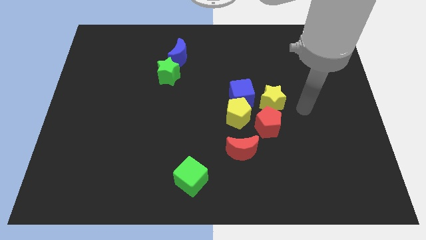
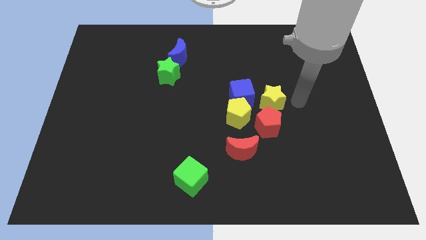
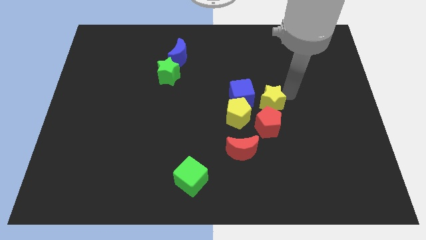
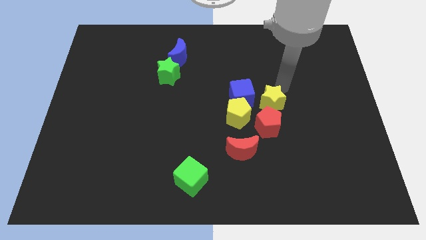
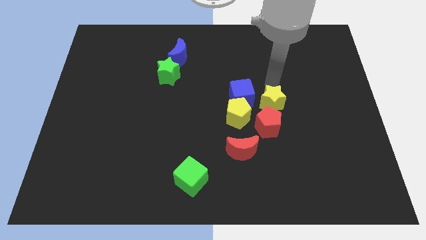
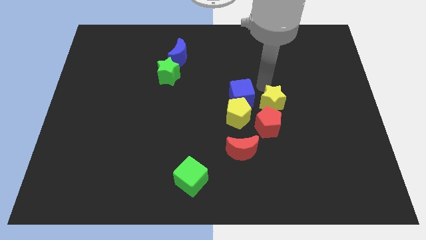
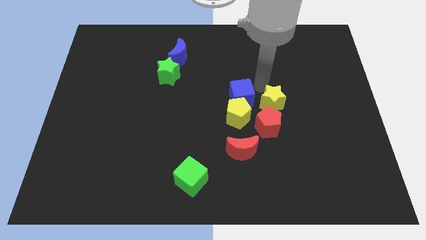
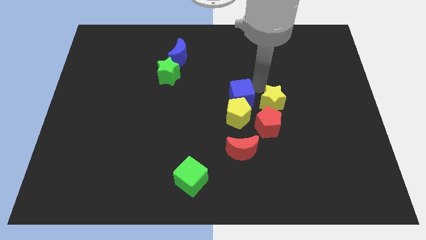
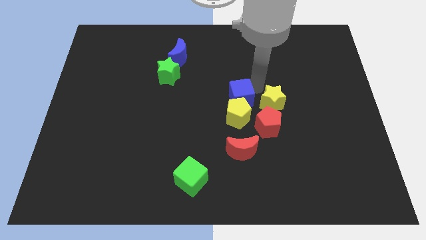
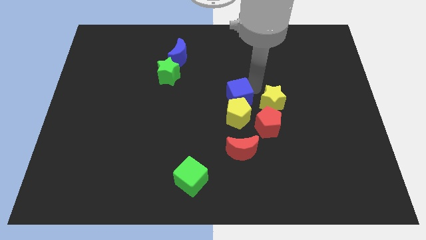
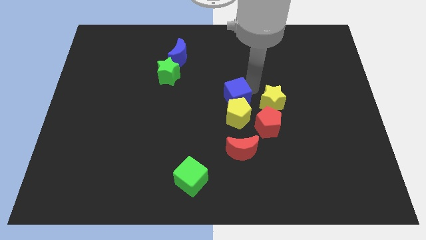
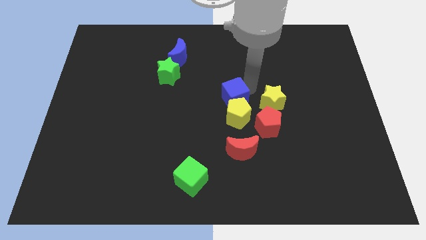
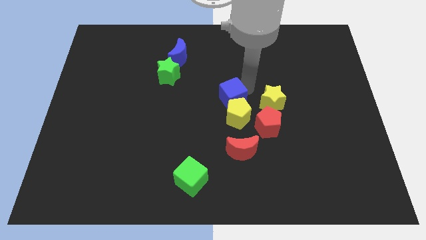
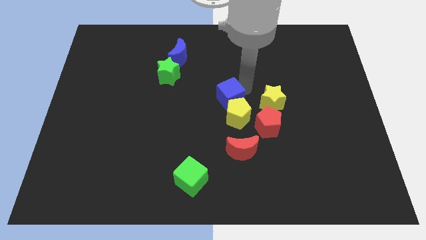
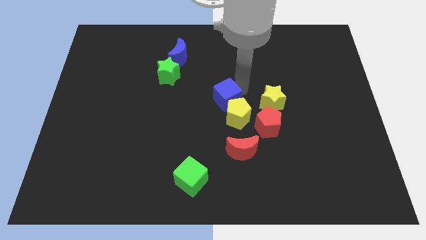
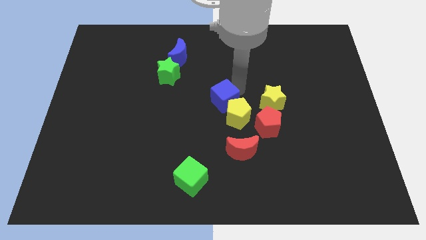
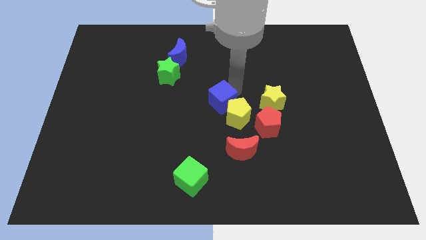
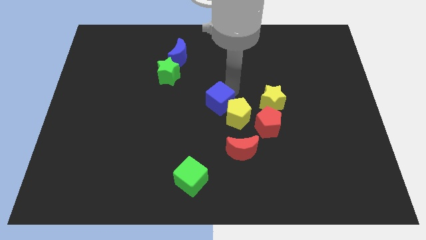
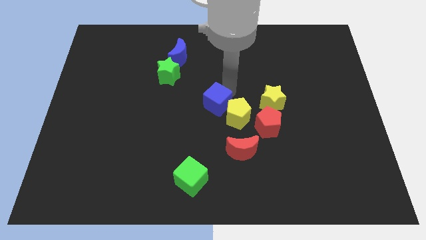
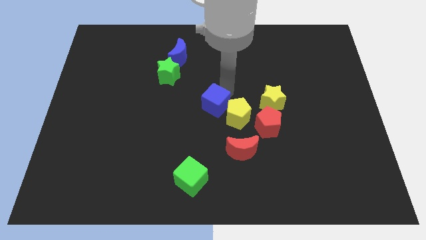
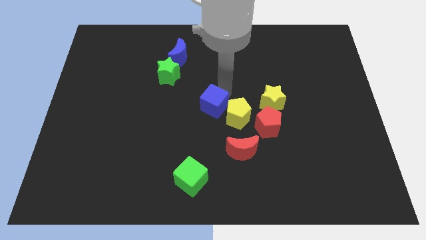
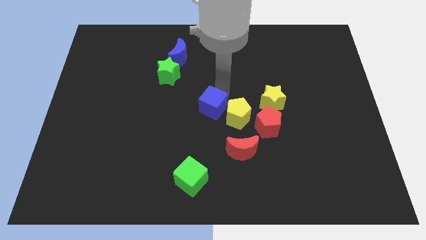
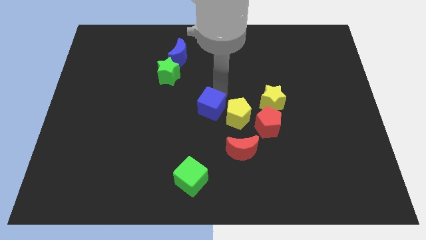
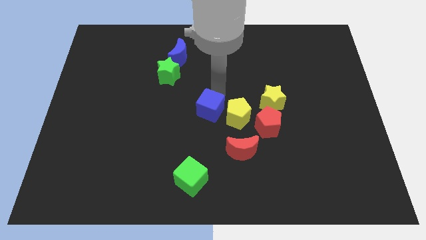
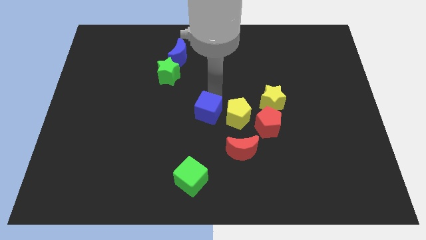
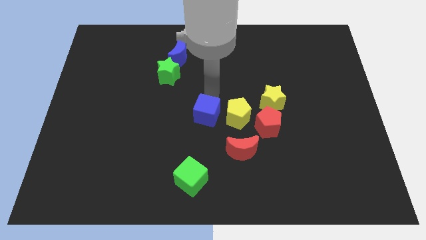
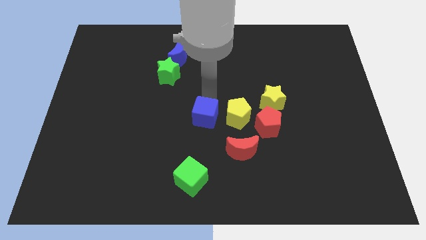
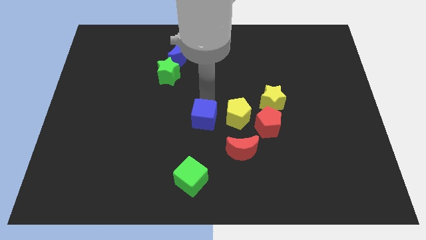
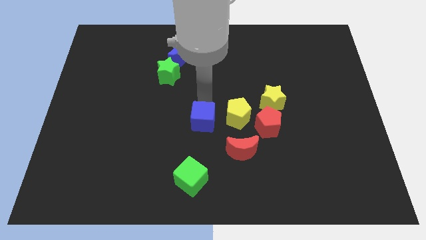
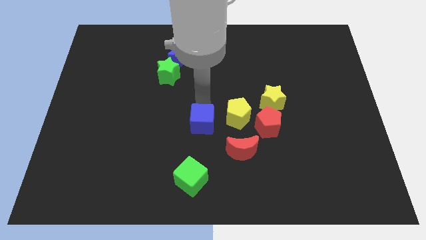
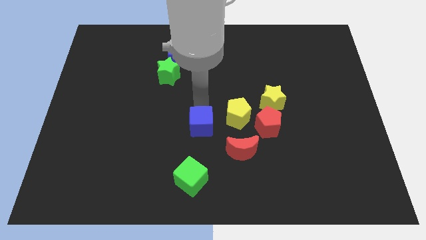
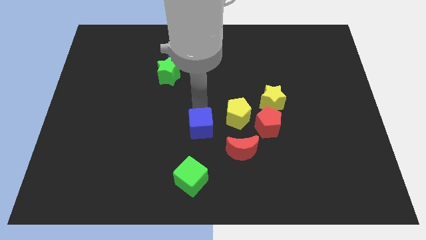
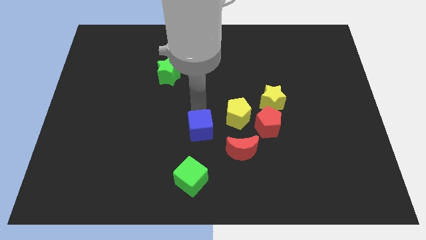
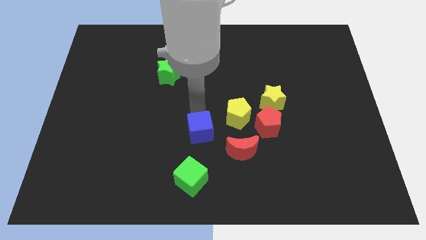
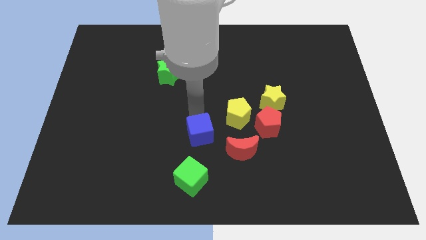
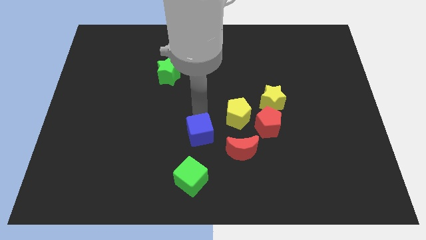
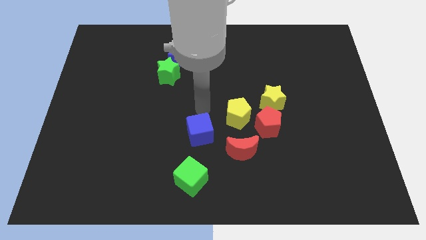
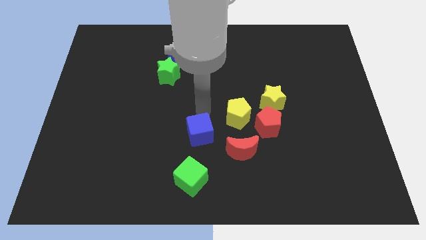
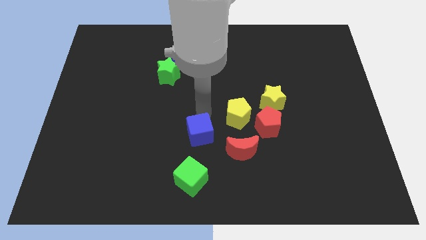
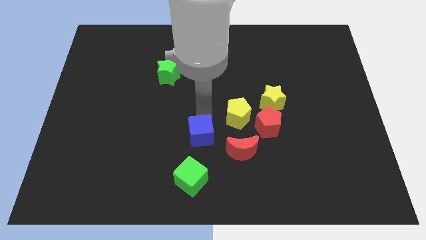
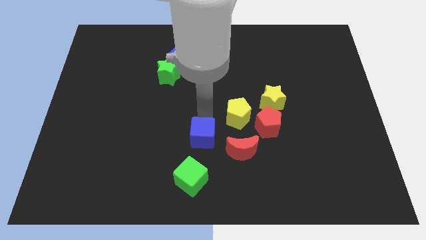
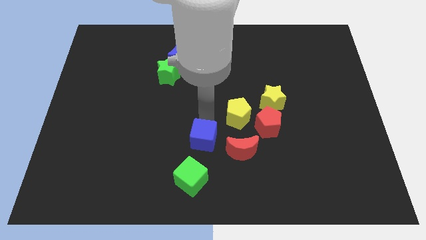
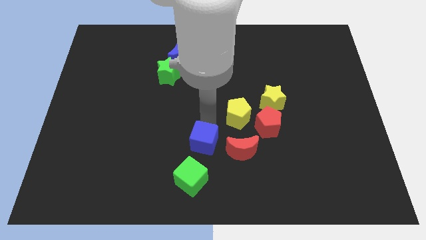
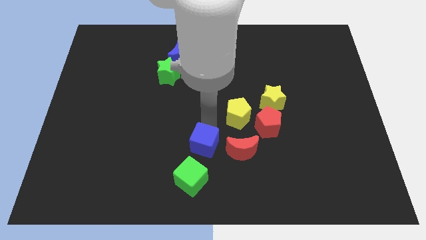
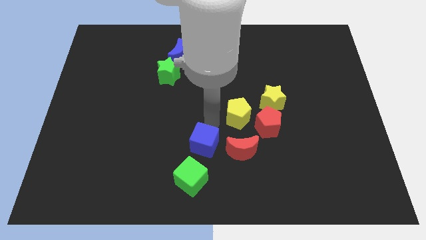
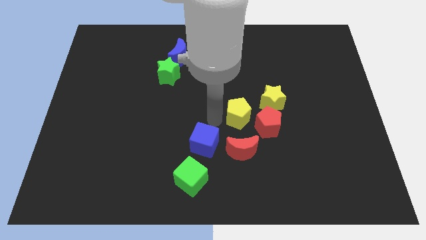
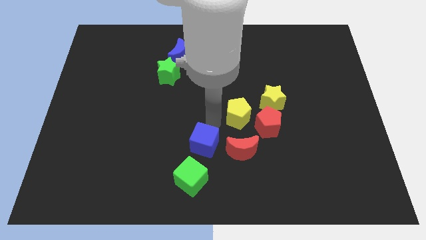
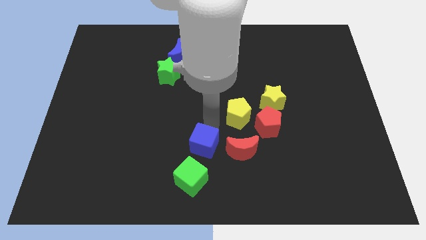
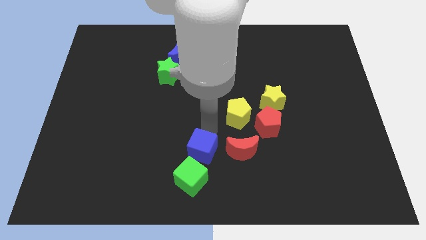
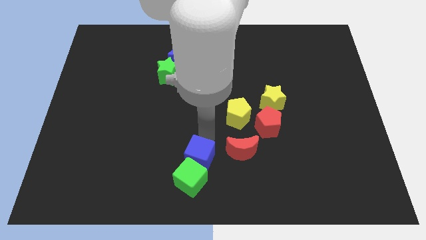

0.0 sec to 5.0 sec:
move the blue cube next to the green cube

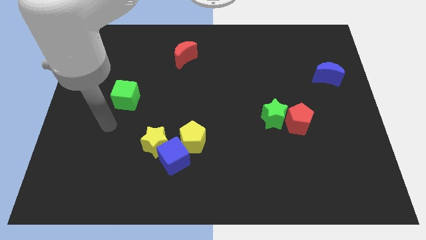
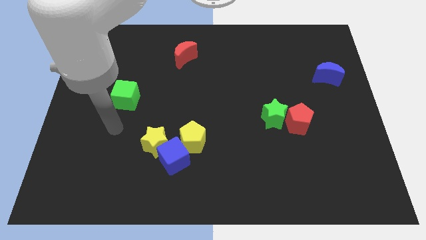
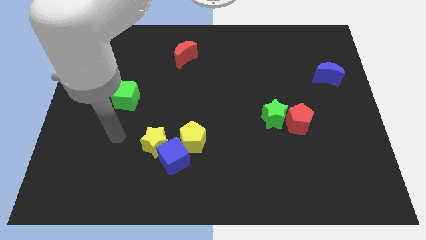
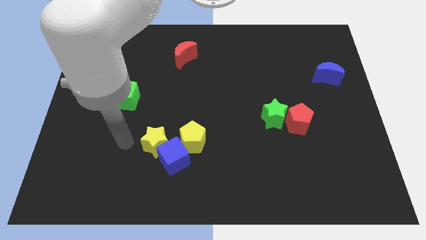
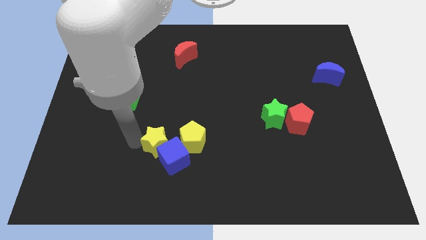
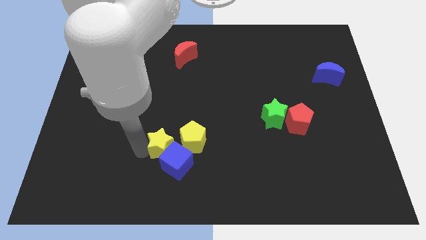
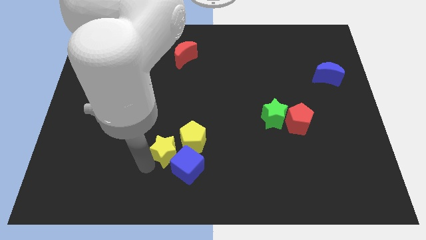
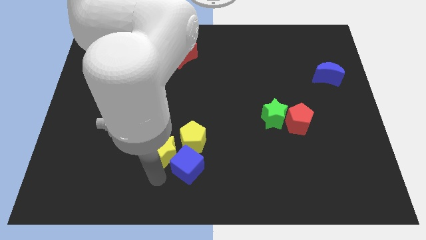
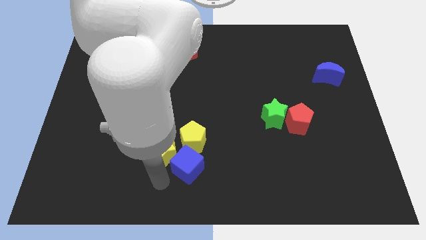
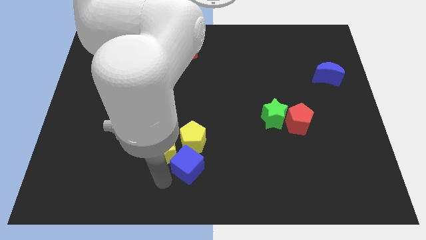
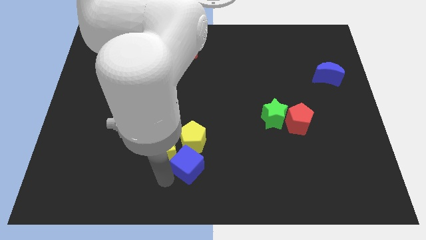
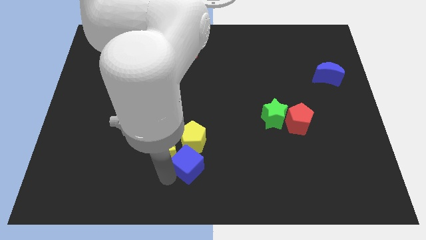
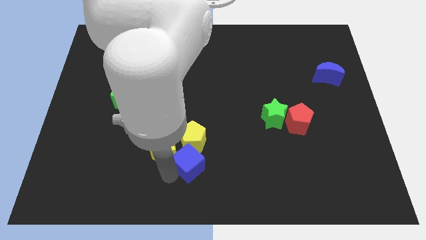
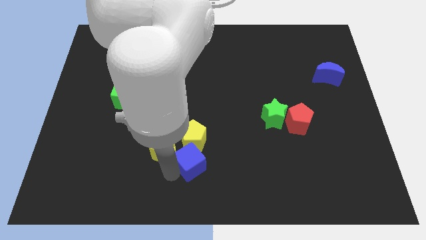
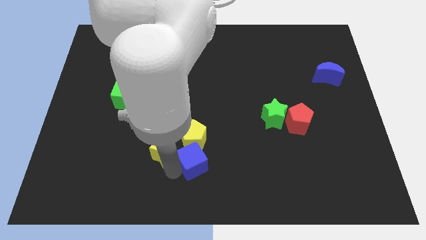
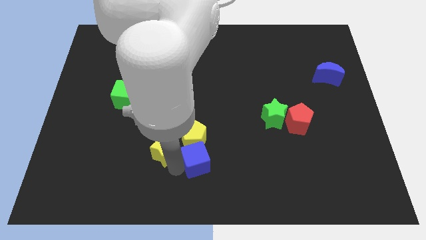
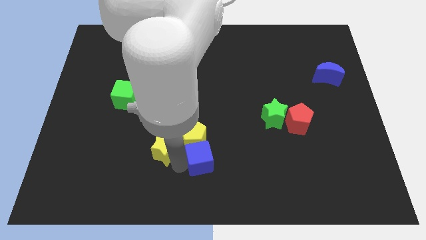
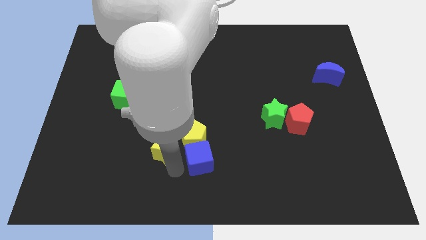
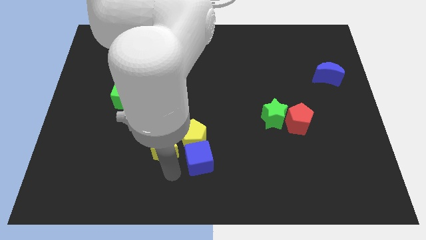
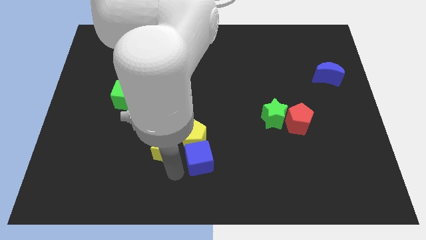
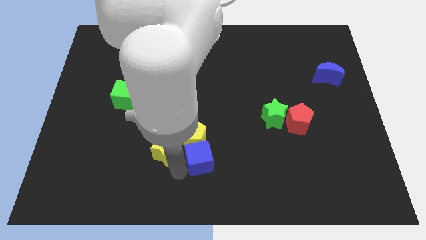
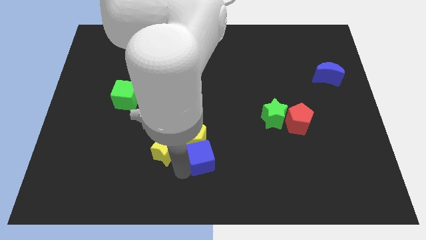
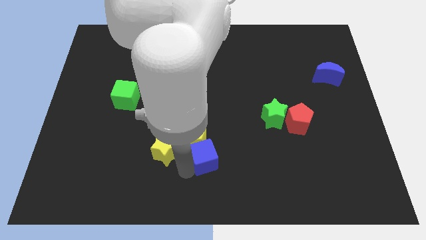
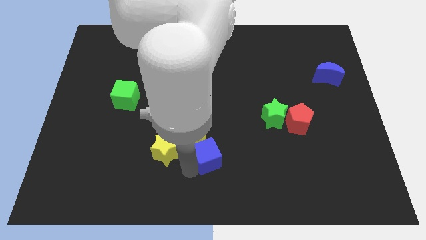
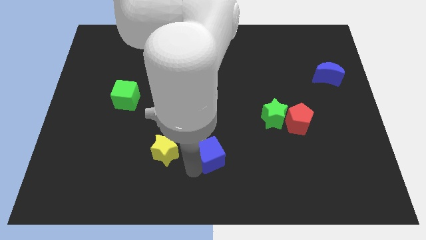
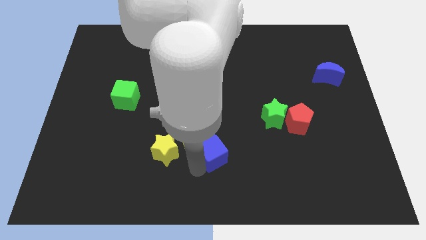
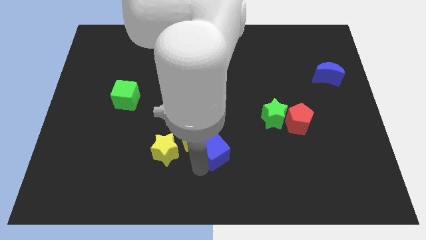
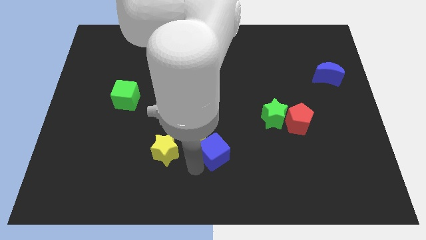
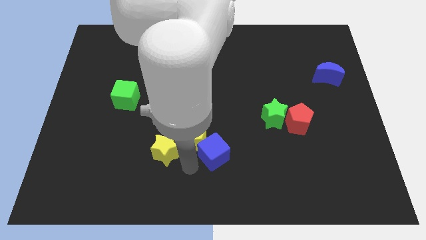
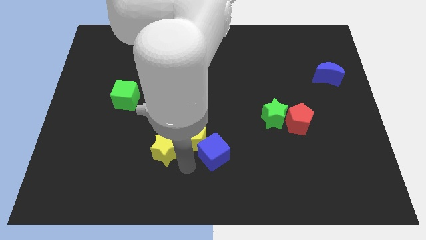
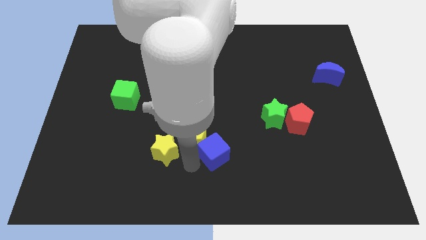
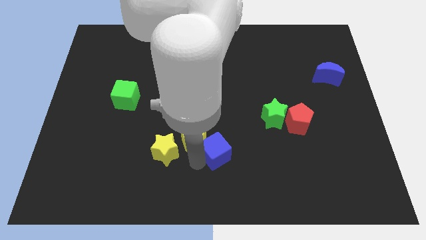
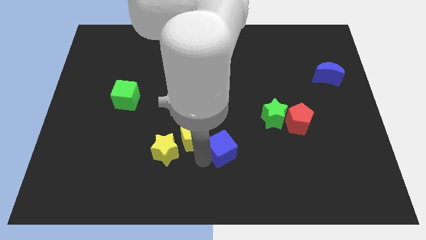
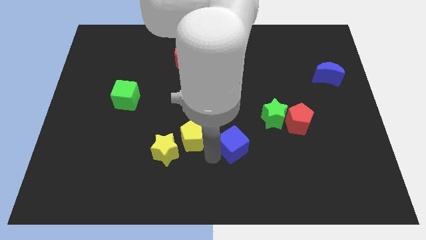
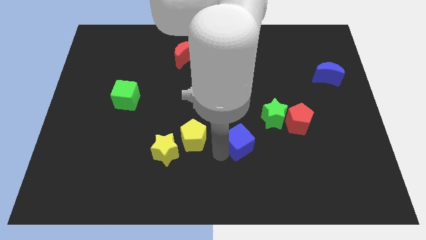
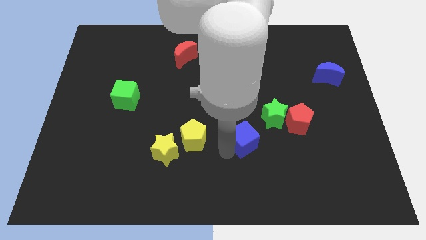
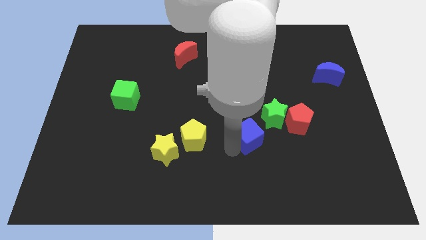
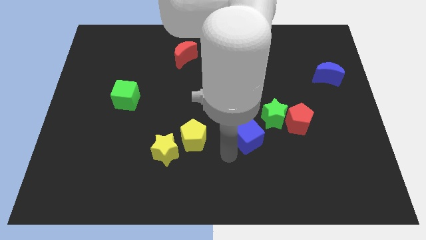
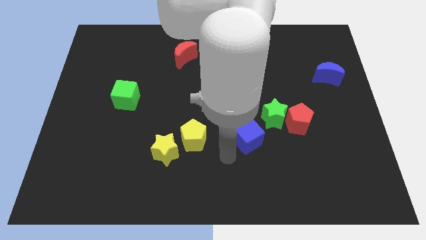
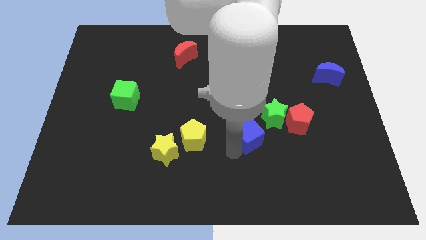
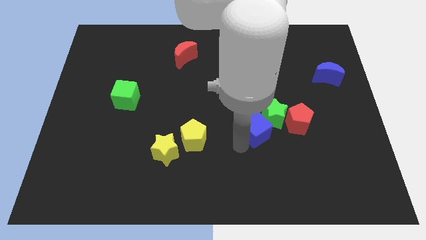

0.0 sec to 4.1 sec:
slide the blue cube towards the green star
